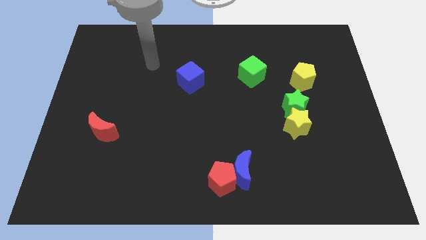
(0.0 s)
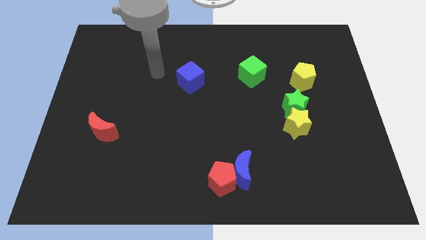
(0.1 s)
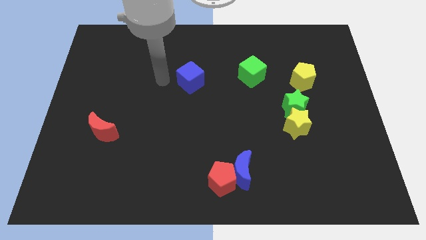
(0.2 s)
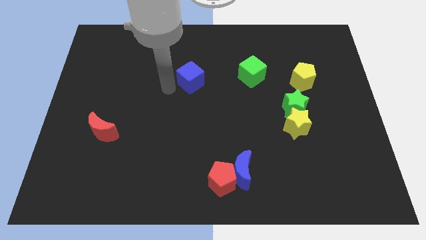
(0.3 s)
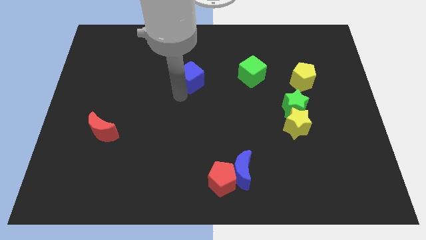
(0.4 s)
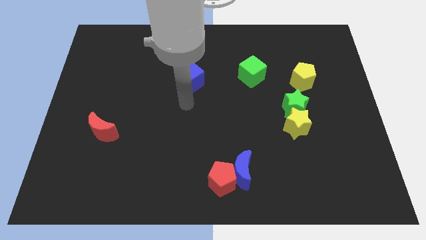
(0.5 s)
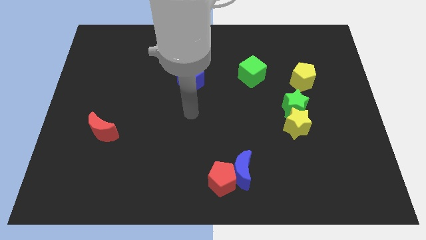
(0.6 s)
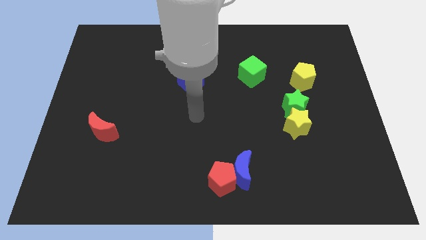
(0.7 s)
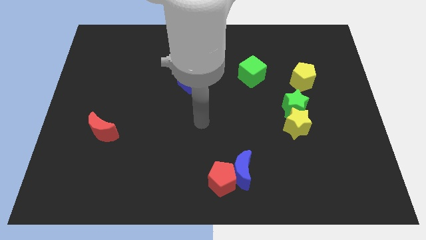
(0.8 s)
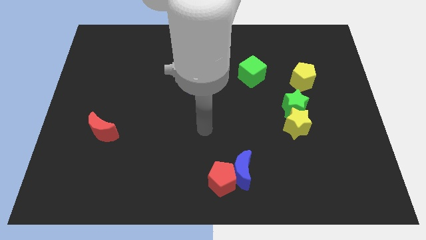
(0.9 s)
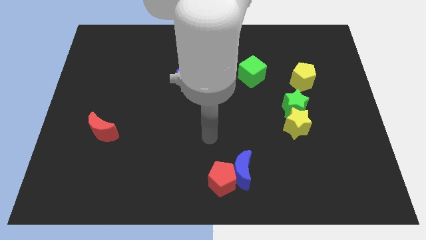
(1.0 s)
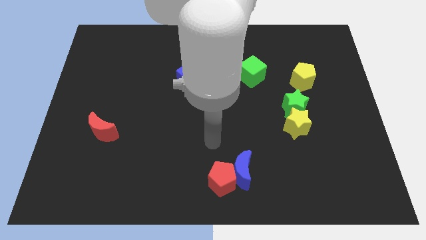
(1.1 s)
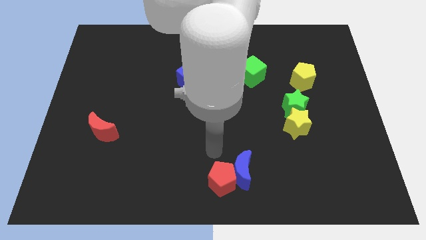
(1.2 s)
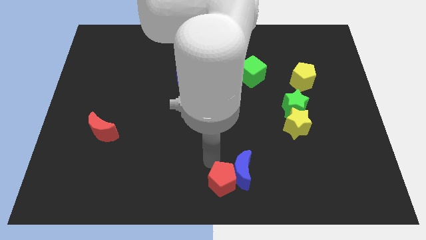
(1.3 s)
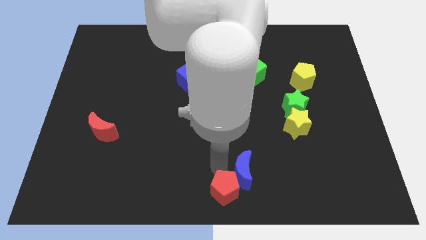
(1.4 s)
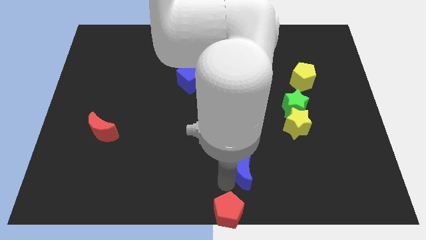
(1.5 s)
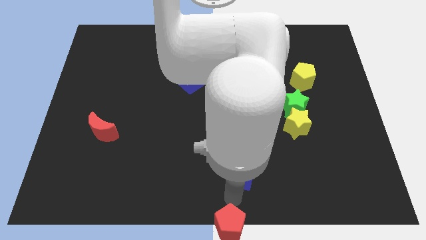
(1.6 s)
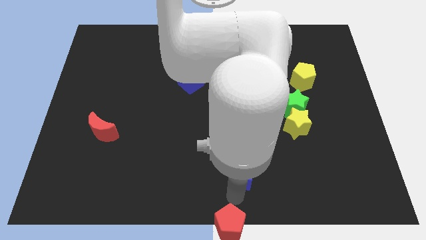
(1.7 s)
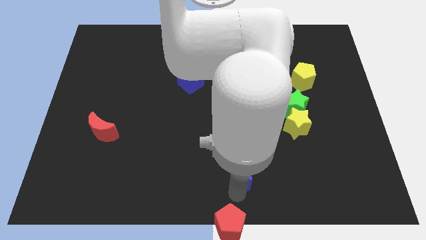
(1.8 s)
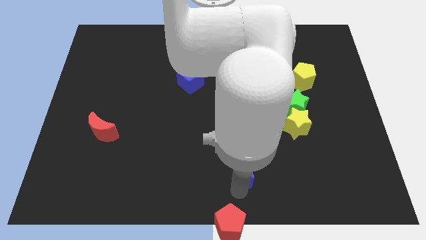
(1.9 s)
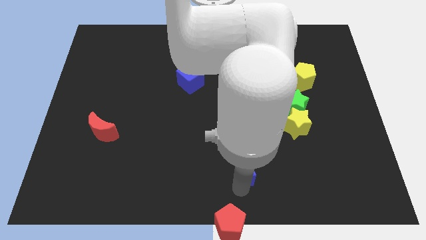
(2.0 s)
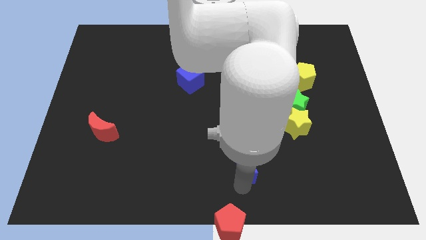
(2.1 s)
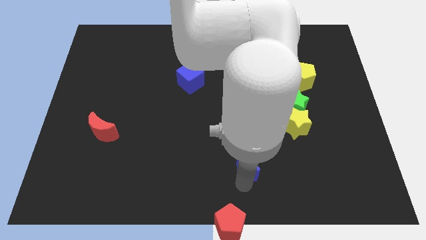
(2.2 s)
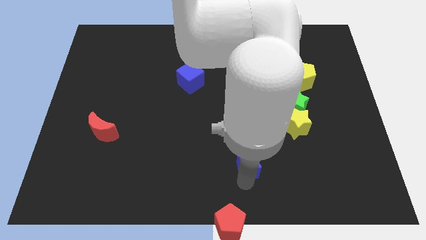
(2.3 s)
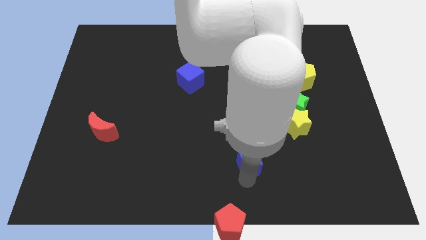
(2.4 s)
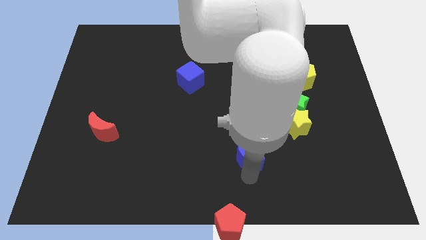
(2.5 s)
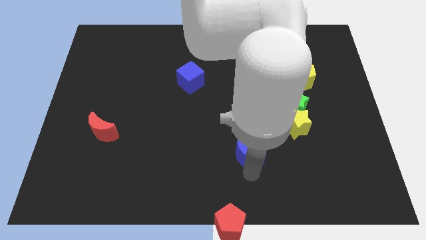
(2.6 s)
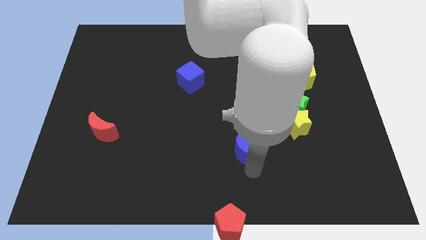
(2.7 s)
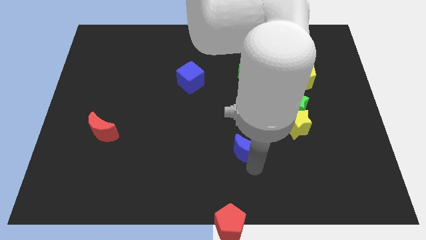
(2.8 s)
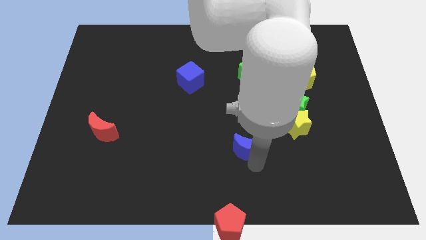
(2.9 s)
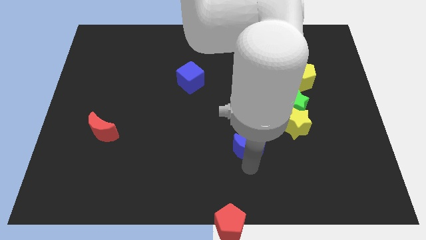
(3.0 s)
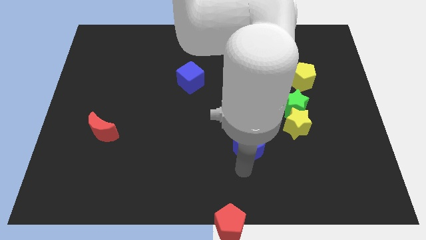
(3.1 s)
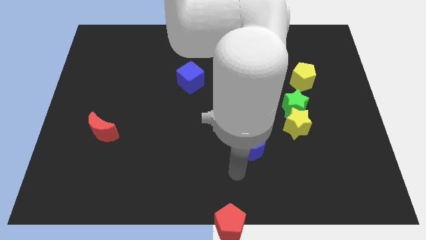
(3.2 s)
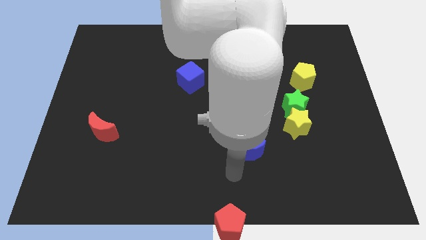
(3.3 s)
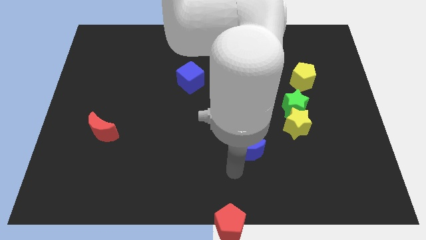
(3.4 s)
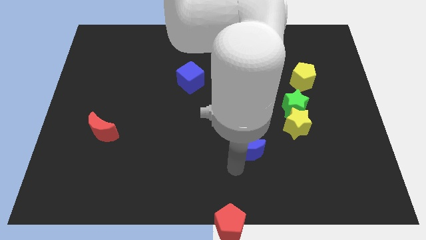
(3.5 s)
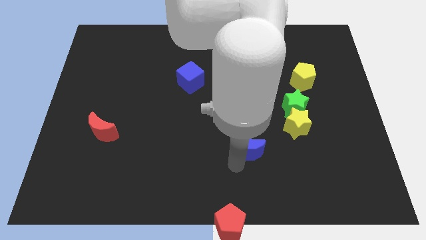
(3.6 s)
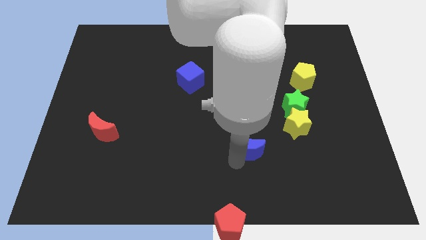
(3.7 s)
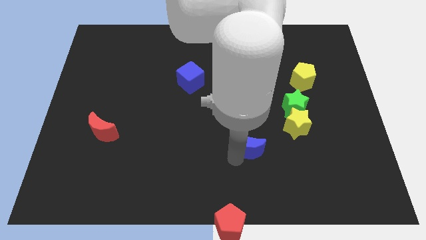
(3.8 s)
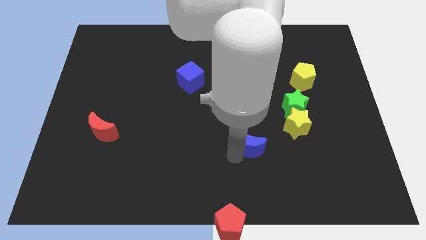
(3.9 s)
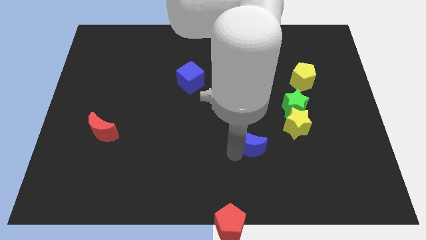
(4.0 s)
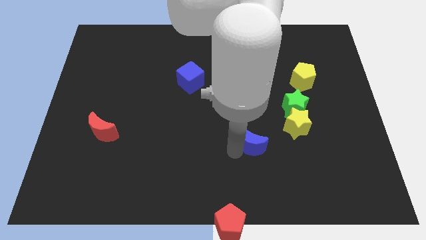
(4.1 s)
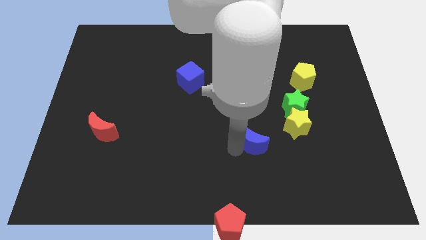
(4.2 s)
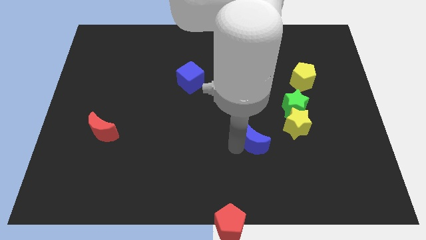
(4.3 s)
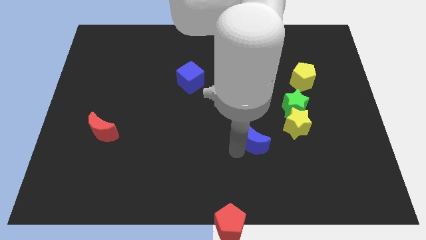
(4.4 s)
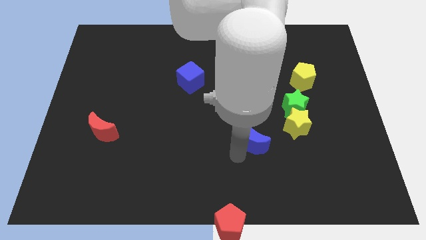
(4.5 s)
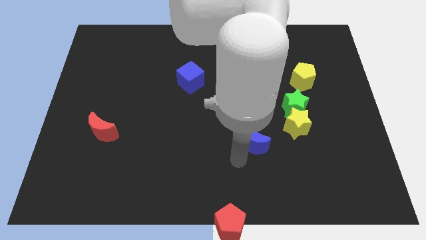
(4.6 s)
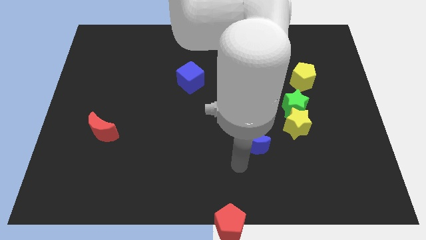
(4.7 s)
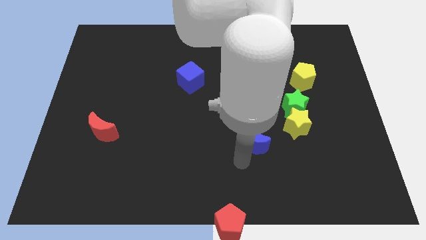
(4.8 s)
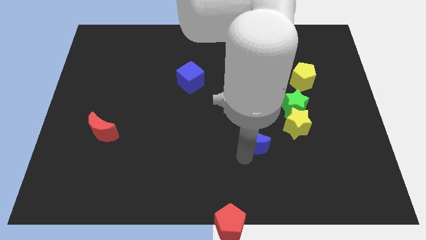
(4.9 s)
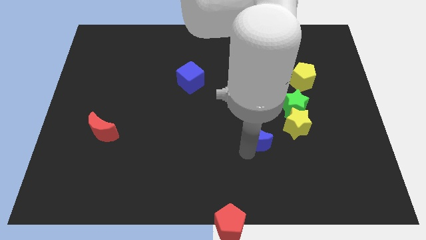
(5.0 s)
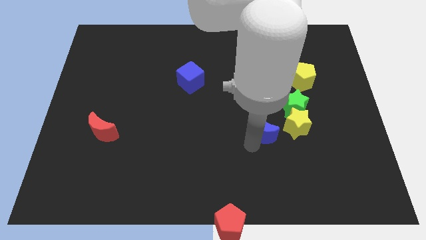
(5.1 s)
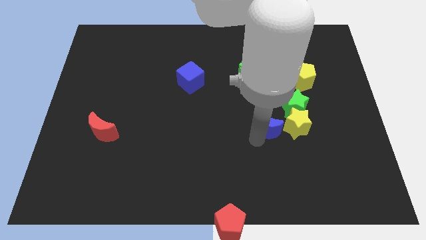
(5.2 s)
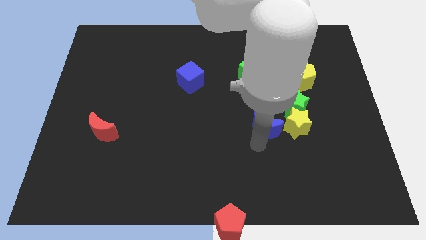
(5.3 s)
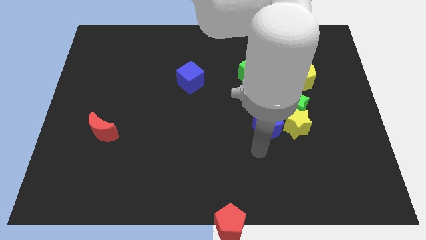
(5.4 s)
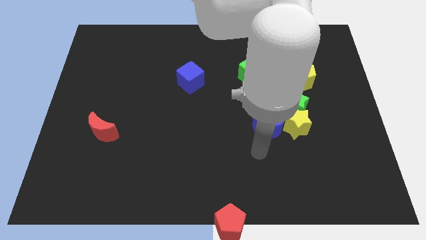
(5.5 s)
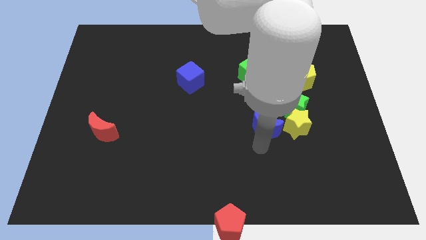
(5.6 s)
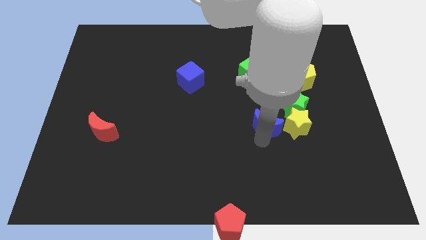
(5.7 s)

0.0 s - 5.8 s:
move the blue moon to the top left side of the yellow star
